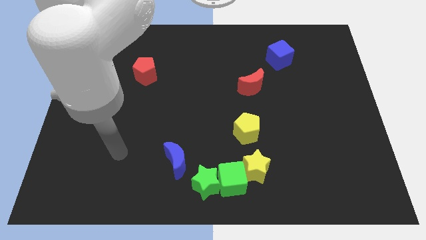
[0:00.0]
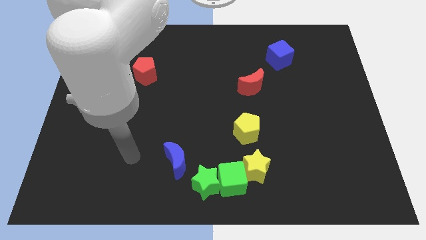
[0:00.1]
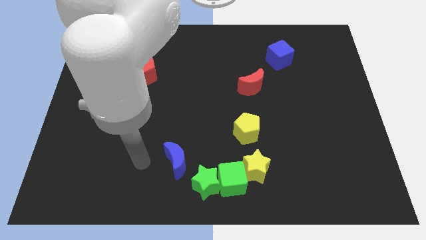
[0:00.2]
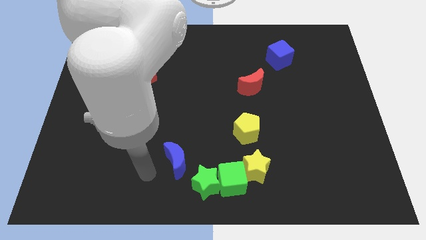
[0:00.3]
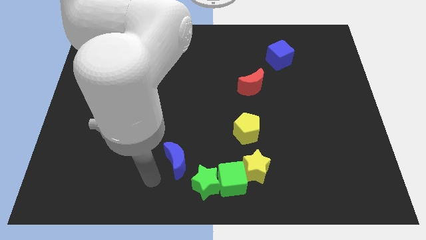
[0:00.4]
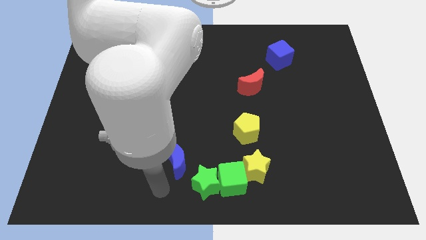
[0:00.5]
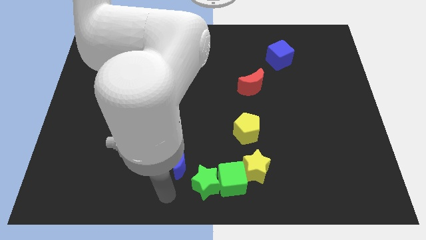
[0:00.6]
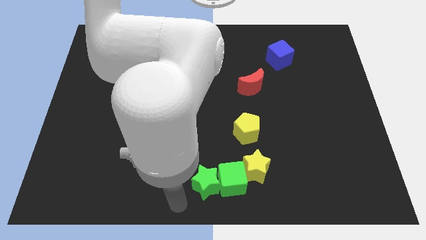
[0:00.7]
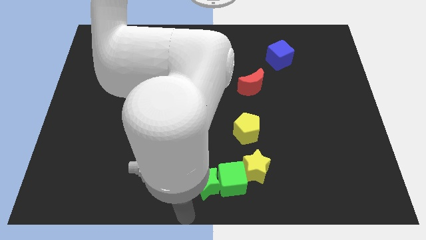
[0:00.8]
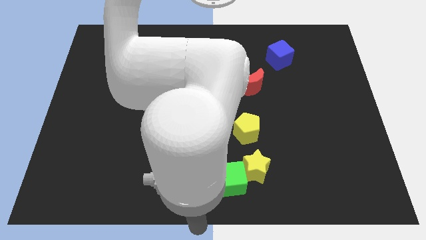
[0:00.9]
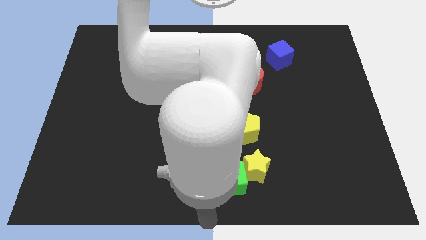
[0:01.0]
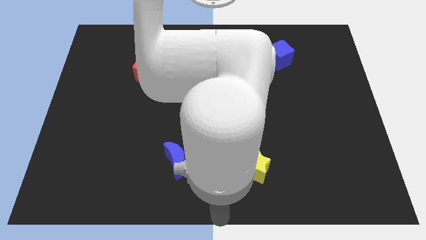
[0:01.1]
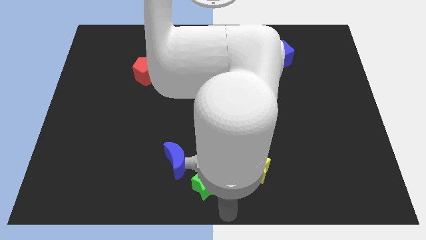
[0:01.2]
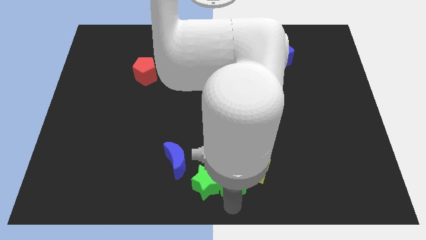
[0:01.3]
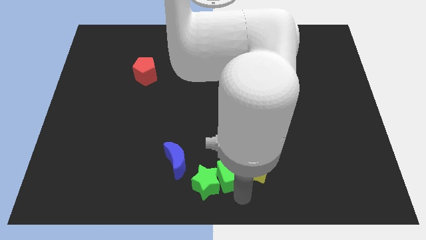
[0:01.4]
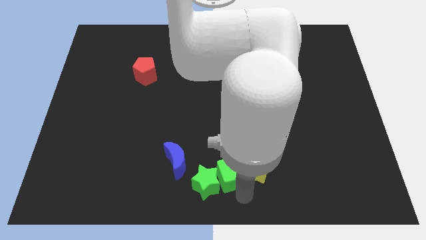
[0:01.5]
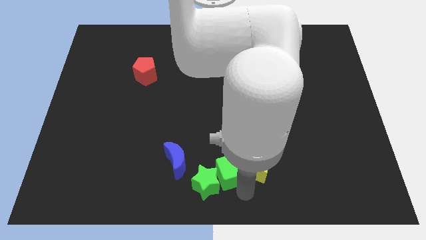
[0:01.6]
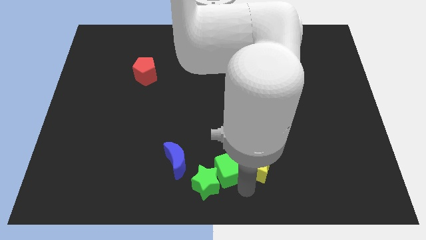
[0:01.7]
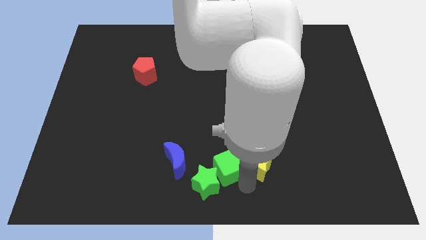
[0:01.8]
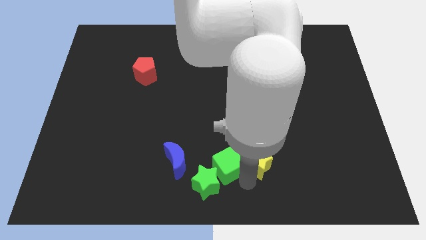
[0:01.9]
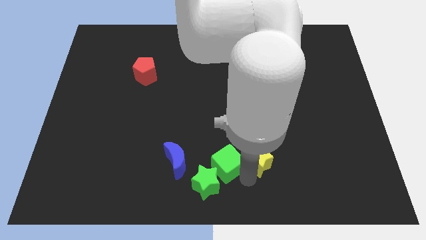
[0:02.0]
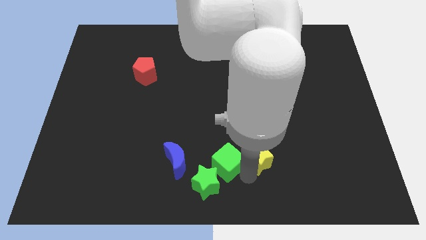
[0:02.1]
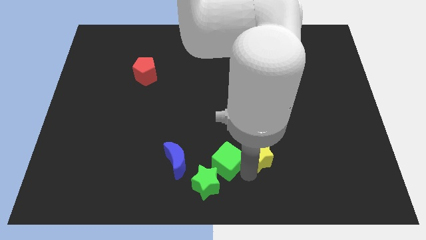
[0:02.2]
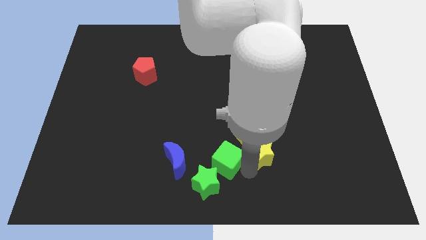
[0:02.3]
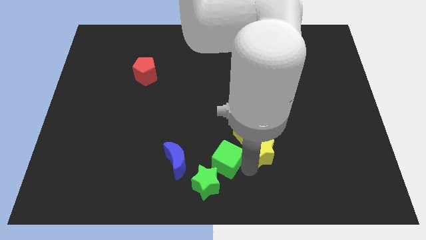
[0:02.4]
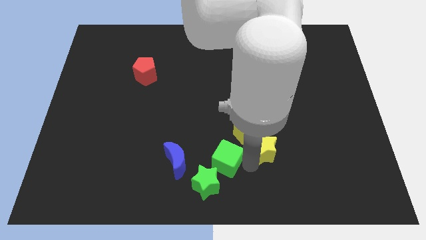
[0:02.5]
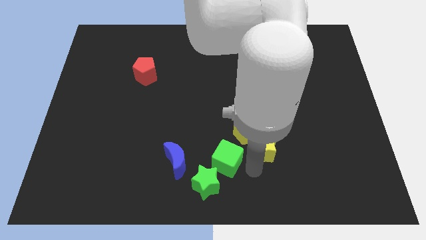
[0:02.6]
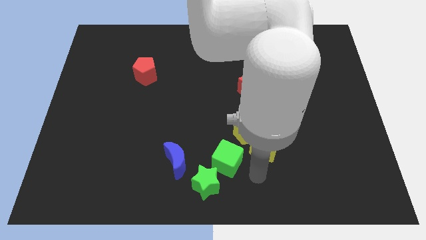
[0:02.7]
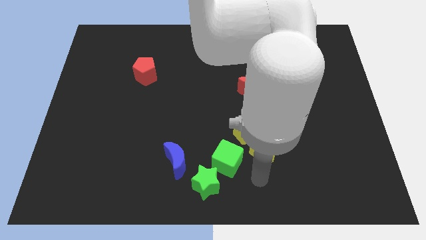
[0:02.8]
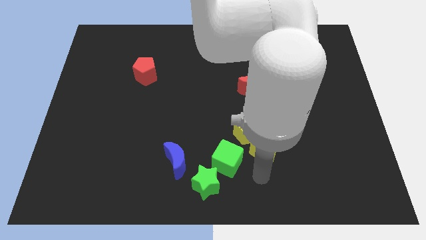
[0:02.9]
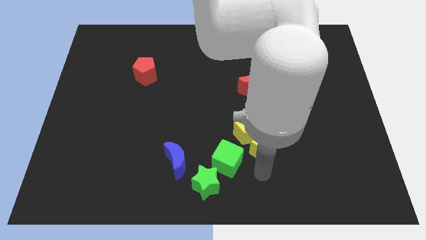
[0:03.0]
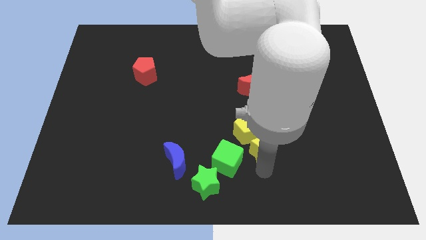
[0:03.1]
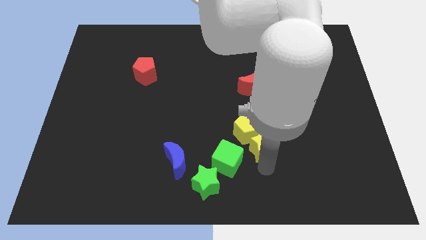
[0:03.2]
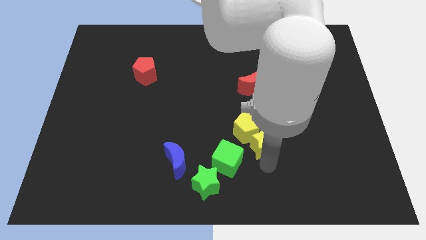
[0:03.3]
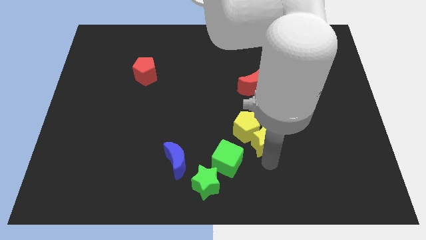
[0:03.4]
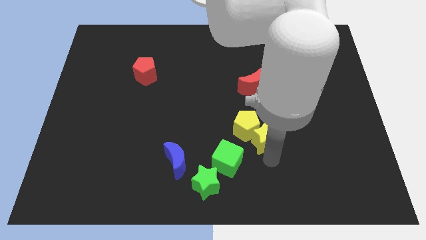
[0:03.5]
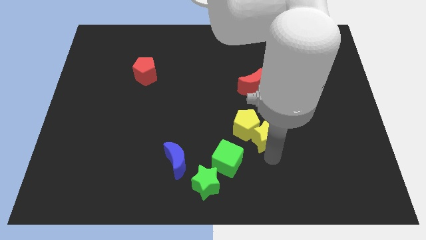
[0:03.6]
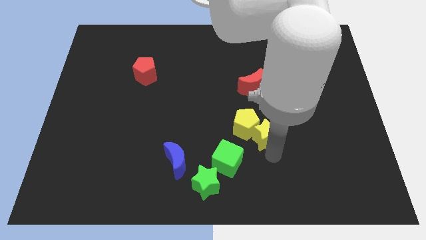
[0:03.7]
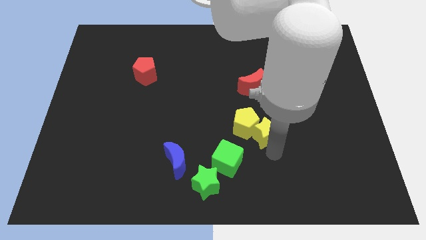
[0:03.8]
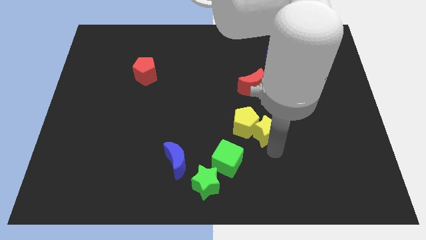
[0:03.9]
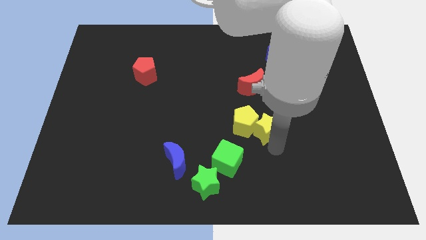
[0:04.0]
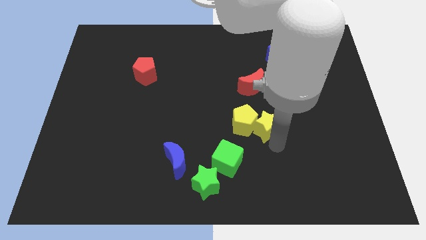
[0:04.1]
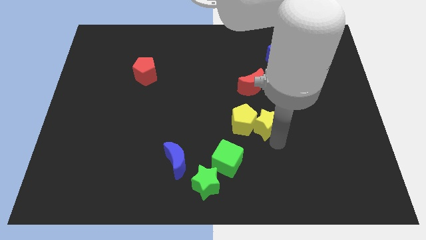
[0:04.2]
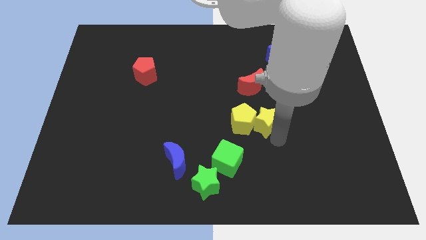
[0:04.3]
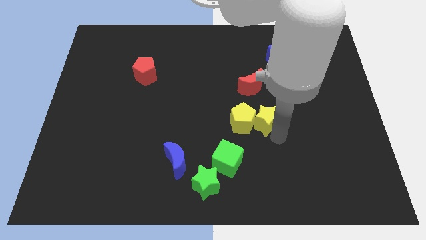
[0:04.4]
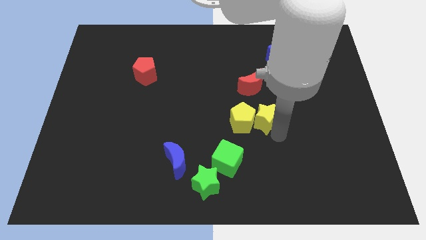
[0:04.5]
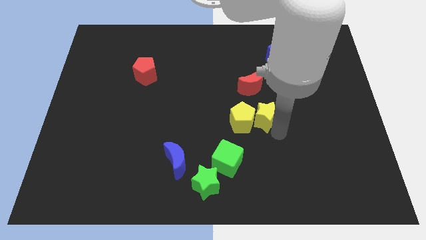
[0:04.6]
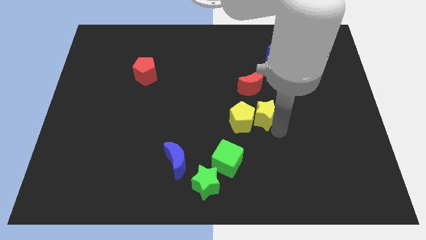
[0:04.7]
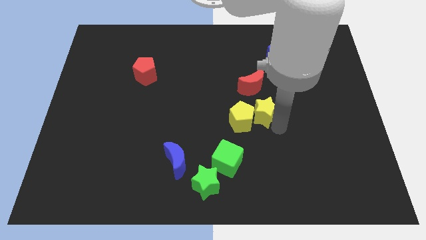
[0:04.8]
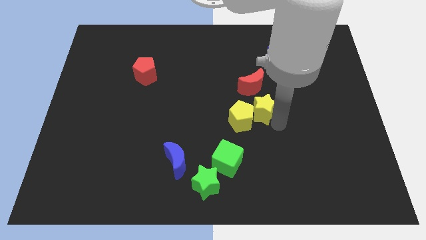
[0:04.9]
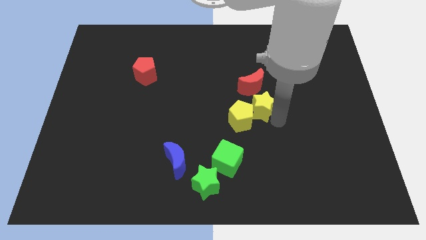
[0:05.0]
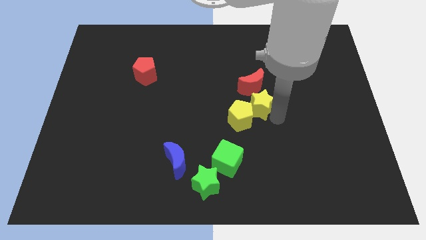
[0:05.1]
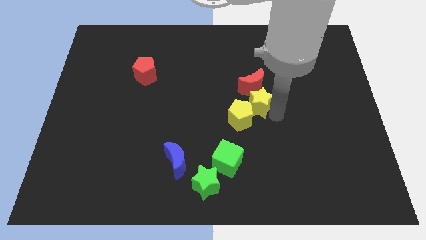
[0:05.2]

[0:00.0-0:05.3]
put the yellow star next to the red moon

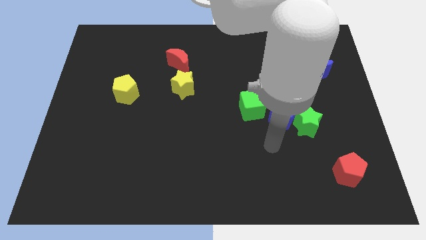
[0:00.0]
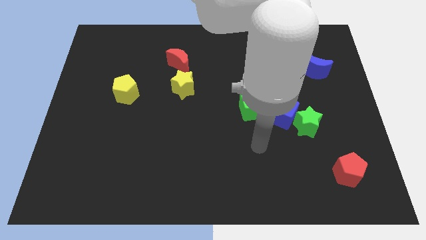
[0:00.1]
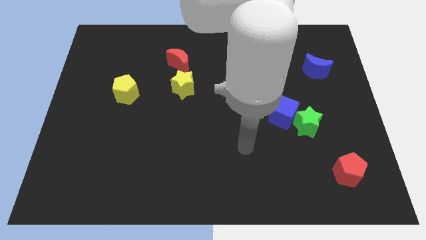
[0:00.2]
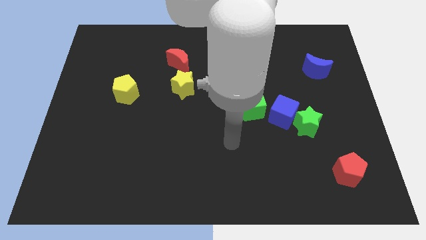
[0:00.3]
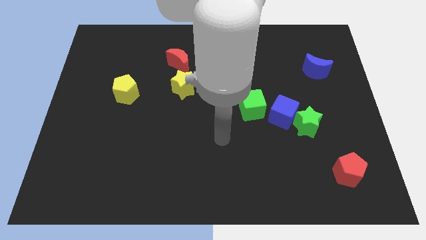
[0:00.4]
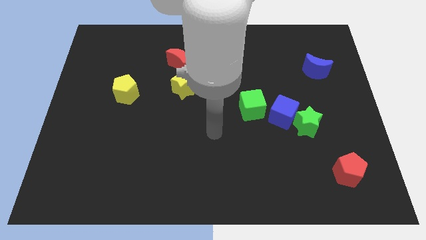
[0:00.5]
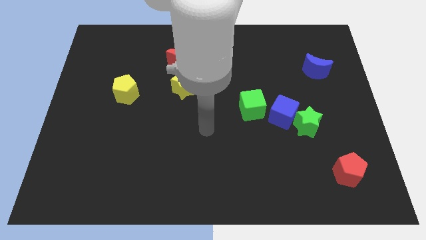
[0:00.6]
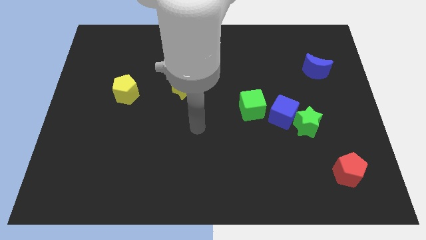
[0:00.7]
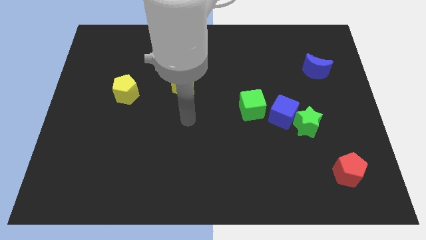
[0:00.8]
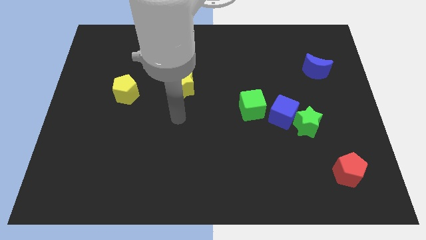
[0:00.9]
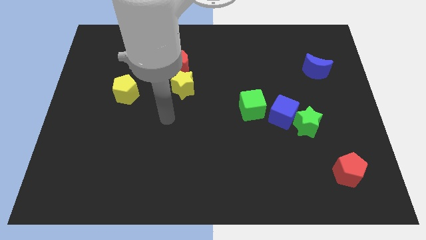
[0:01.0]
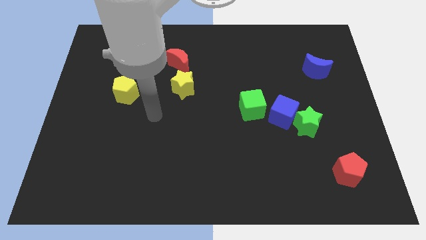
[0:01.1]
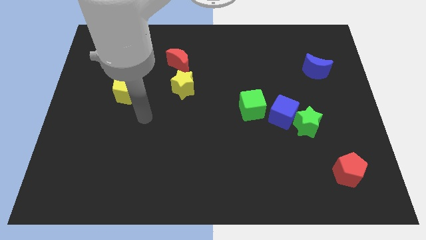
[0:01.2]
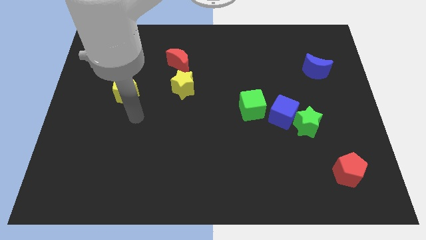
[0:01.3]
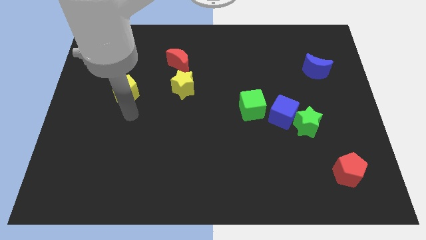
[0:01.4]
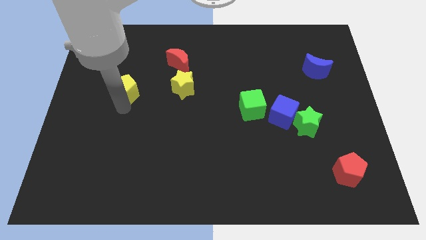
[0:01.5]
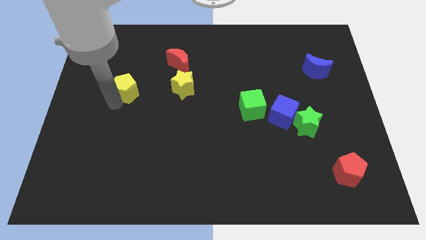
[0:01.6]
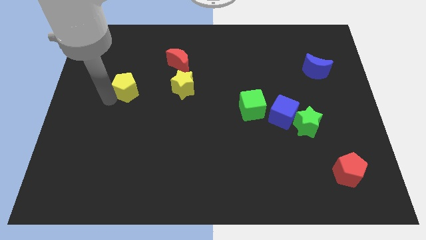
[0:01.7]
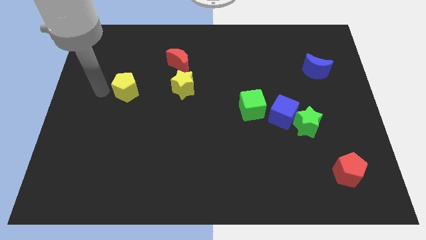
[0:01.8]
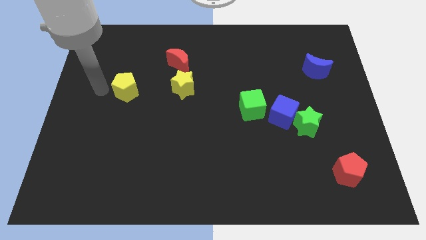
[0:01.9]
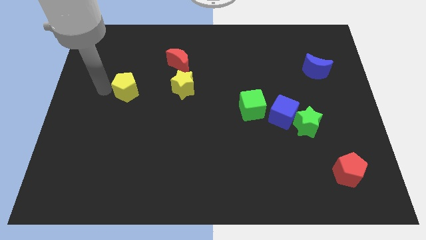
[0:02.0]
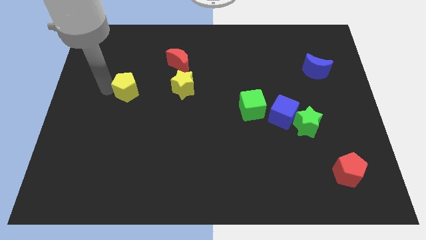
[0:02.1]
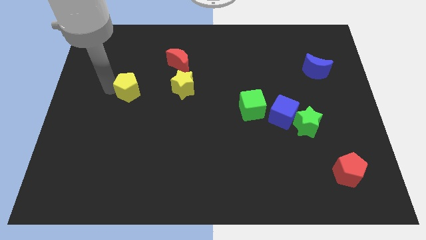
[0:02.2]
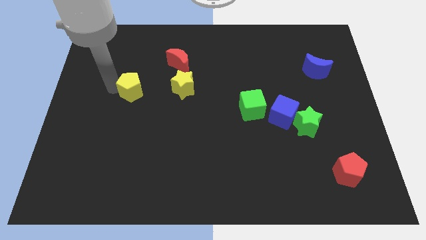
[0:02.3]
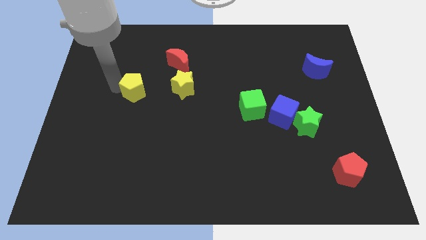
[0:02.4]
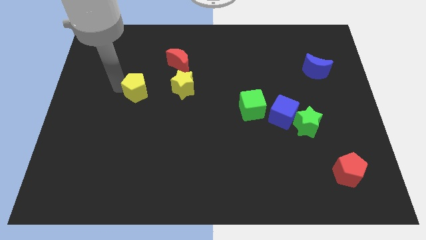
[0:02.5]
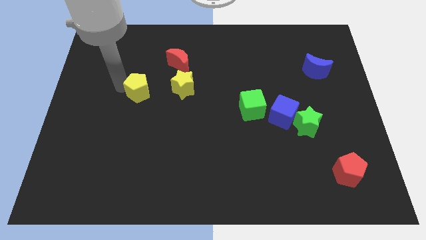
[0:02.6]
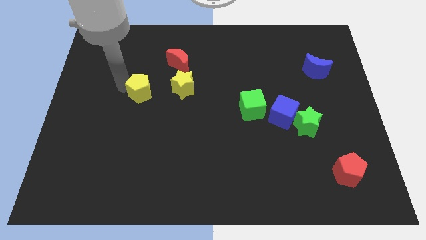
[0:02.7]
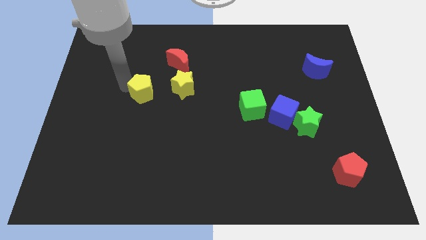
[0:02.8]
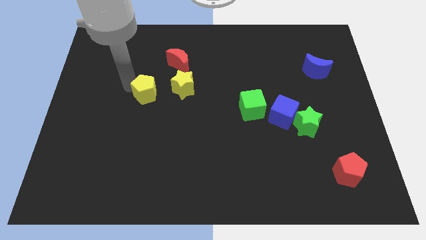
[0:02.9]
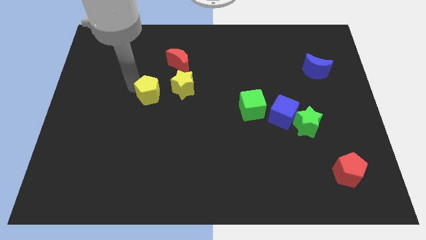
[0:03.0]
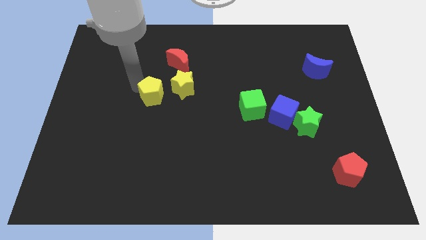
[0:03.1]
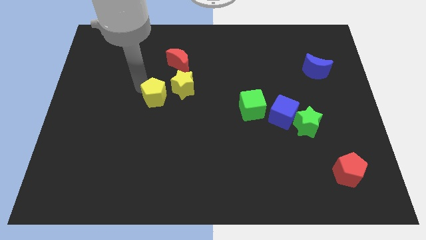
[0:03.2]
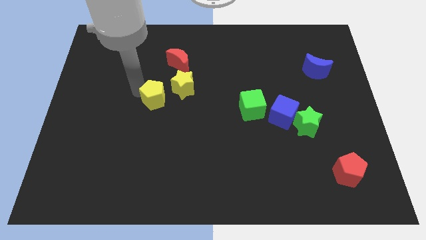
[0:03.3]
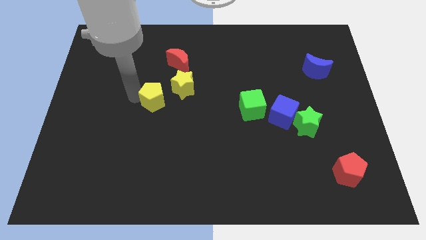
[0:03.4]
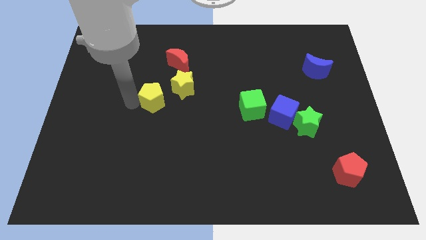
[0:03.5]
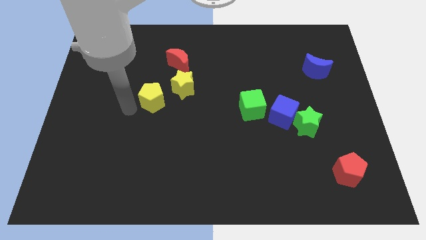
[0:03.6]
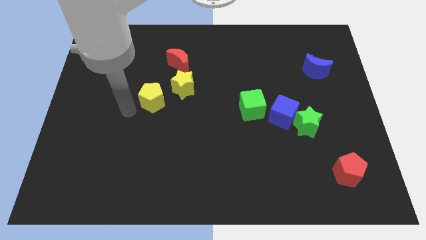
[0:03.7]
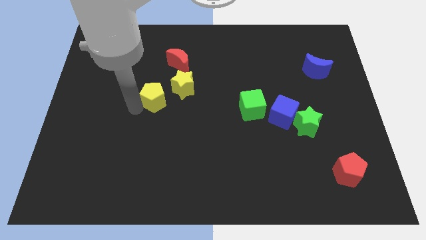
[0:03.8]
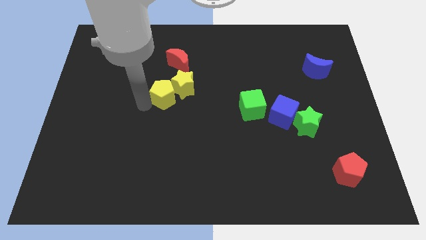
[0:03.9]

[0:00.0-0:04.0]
move the yellow pentagon towards the yellow star
